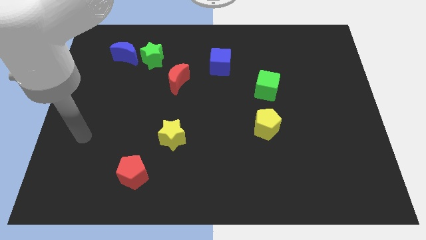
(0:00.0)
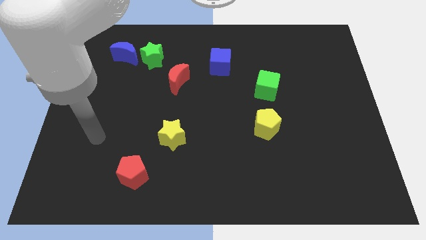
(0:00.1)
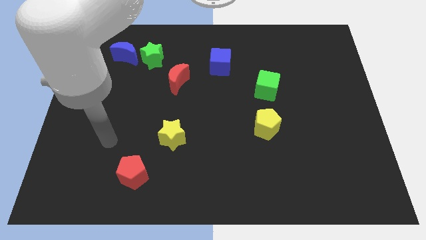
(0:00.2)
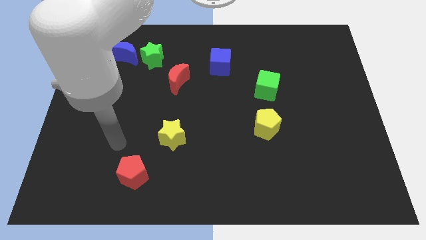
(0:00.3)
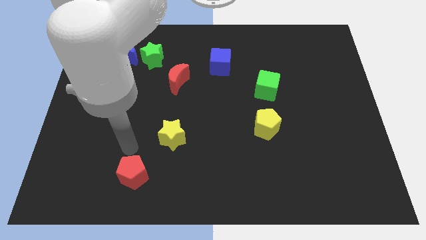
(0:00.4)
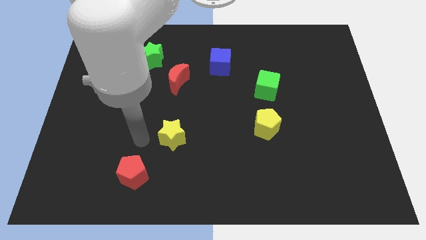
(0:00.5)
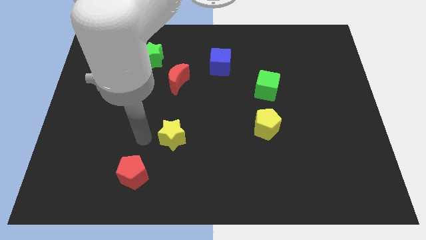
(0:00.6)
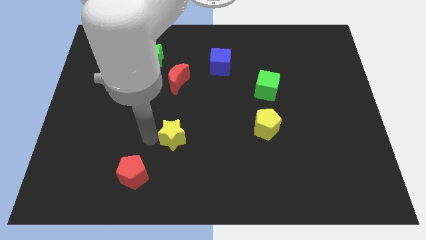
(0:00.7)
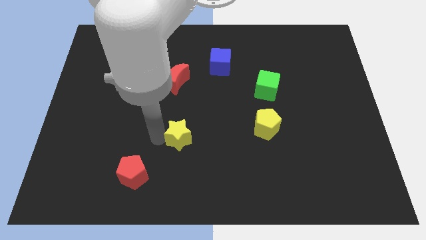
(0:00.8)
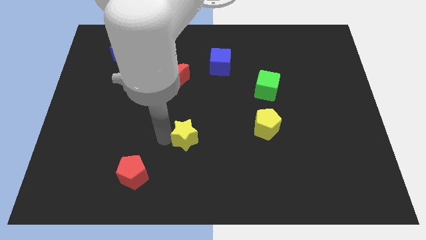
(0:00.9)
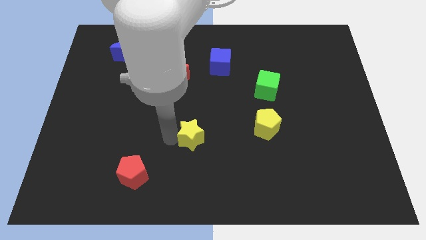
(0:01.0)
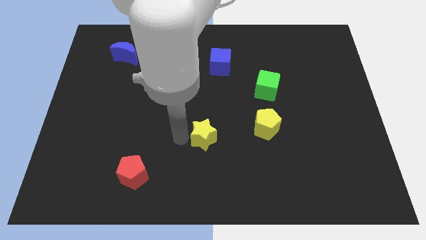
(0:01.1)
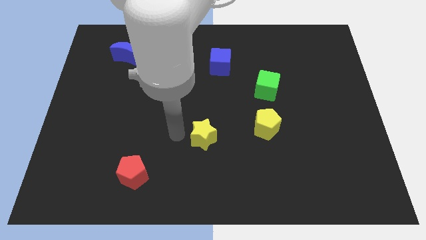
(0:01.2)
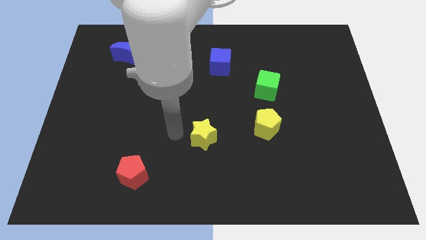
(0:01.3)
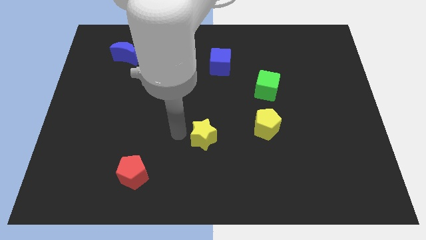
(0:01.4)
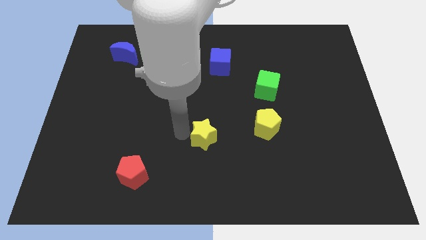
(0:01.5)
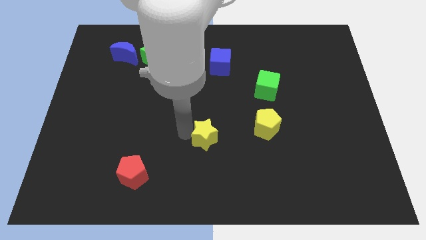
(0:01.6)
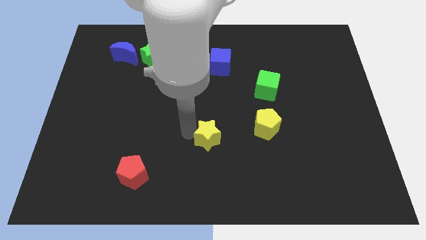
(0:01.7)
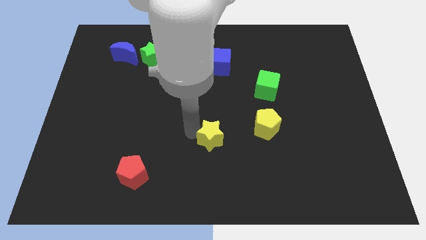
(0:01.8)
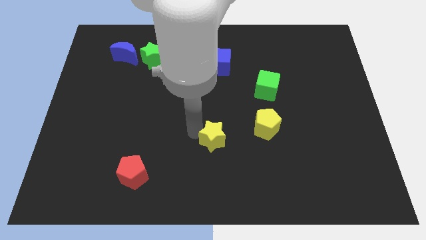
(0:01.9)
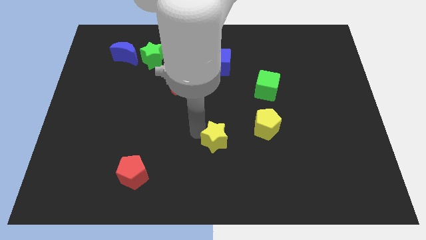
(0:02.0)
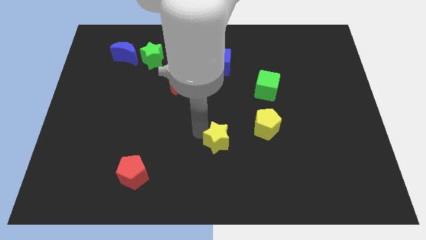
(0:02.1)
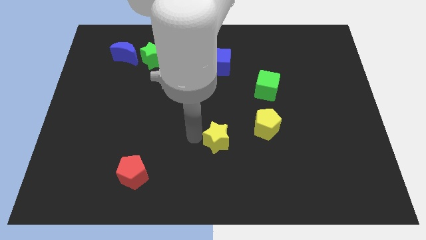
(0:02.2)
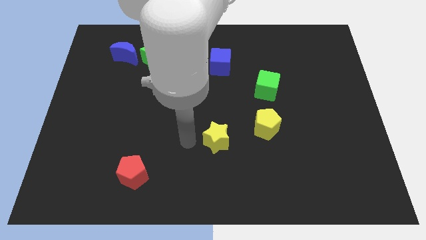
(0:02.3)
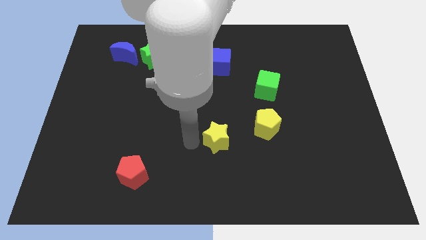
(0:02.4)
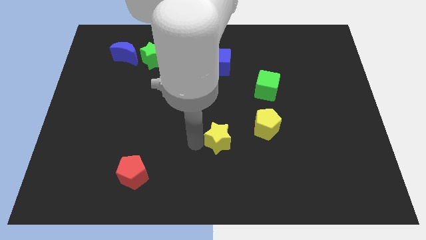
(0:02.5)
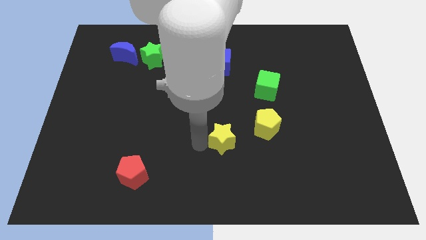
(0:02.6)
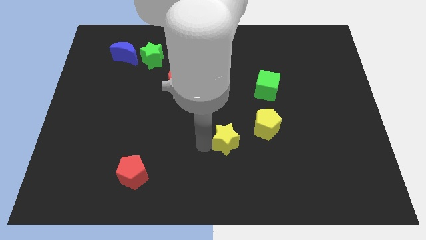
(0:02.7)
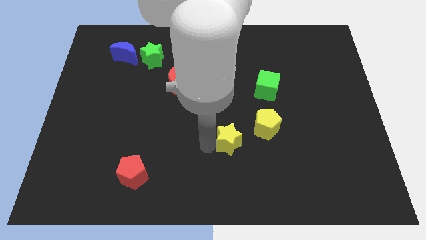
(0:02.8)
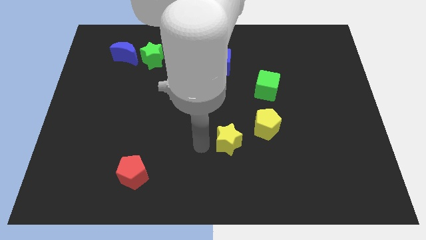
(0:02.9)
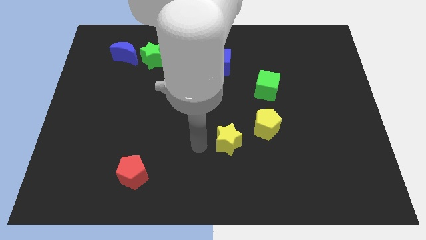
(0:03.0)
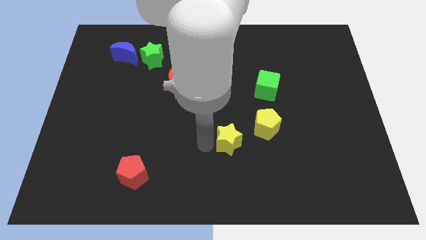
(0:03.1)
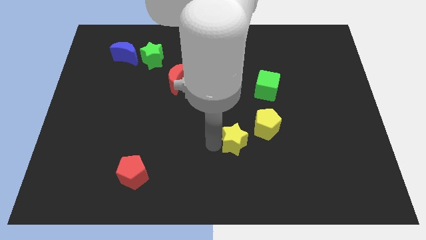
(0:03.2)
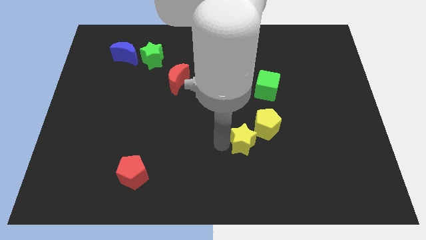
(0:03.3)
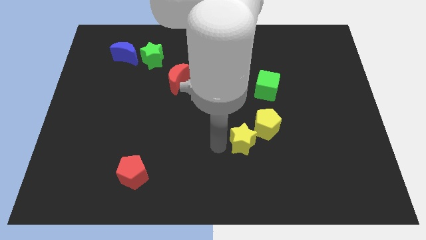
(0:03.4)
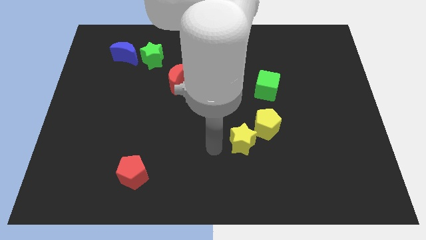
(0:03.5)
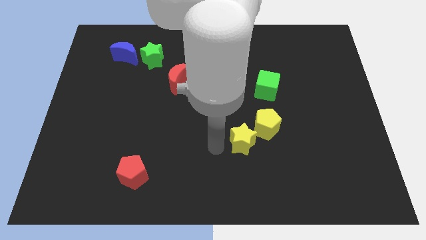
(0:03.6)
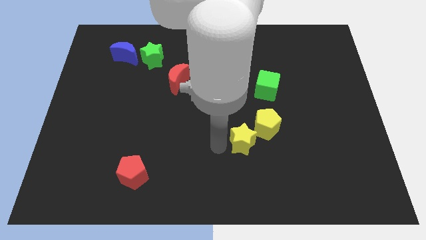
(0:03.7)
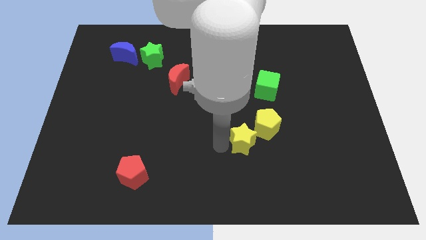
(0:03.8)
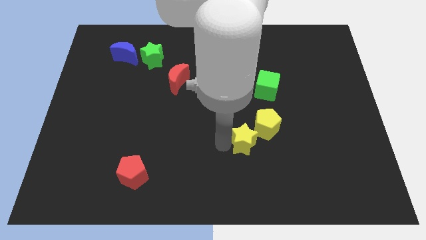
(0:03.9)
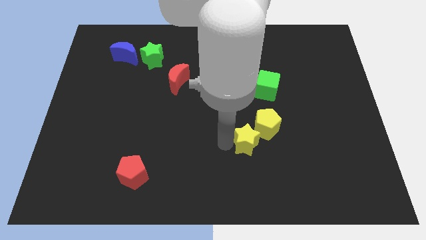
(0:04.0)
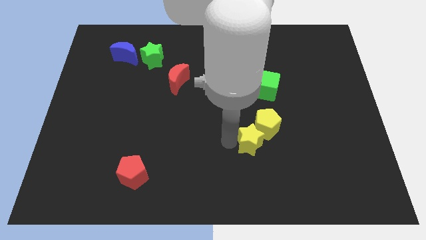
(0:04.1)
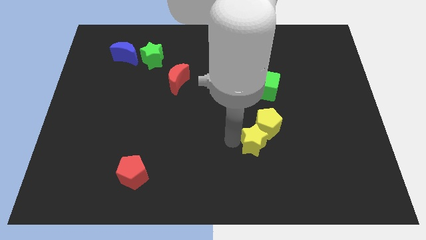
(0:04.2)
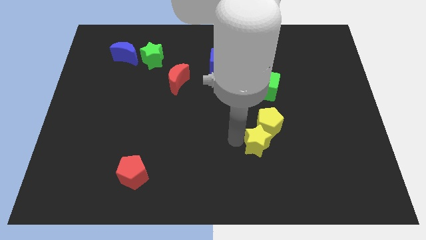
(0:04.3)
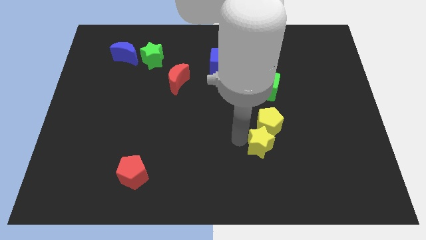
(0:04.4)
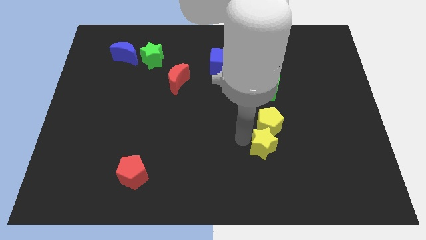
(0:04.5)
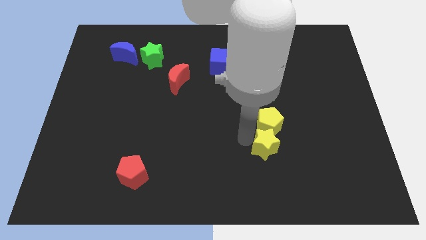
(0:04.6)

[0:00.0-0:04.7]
push the yellow star right

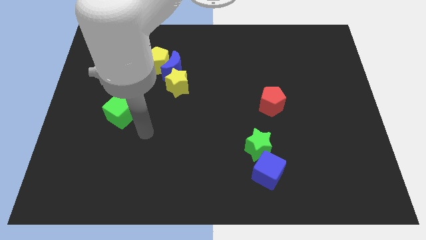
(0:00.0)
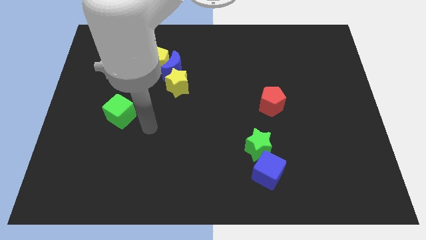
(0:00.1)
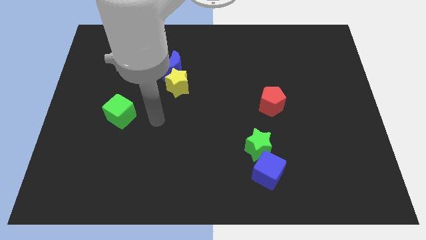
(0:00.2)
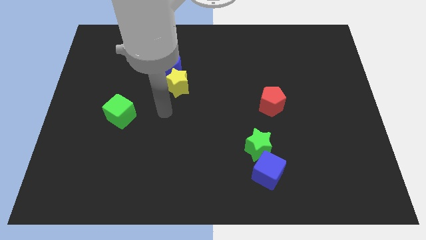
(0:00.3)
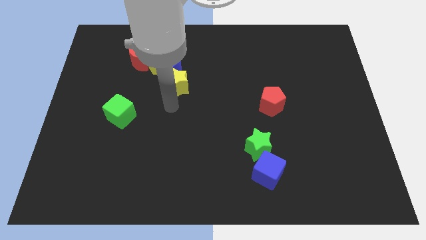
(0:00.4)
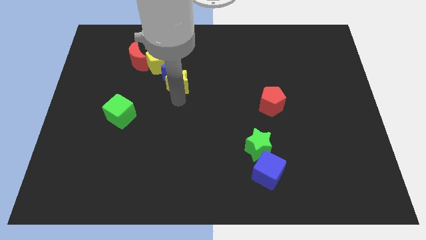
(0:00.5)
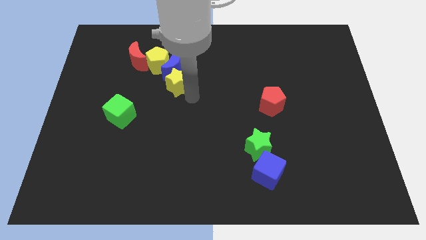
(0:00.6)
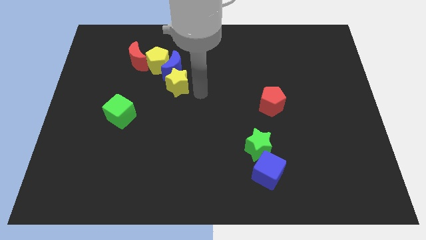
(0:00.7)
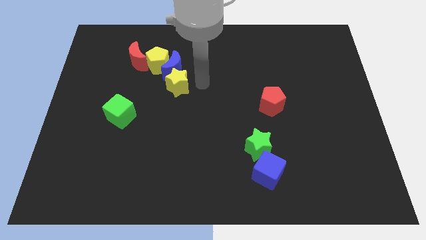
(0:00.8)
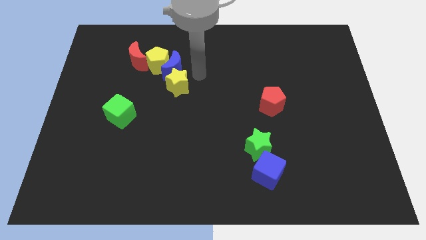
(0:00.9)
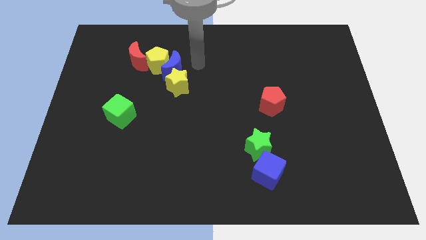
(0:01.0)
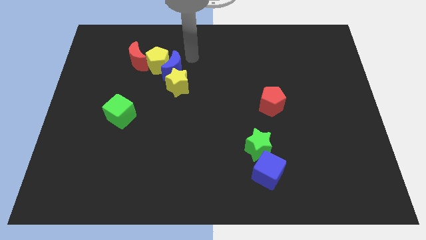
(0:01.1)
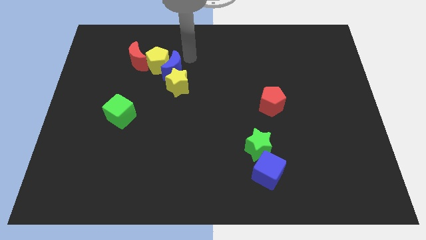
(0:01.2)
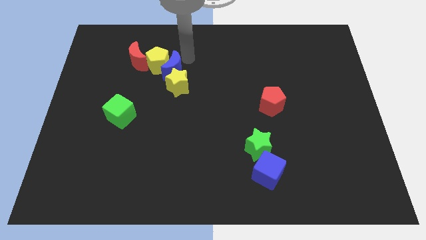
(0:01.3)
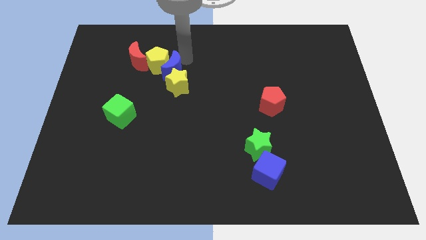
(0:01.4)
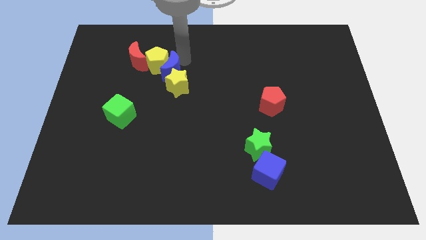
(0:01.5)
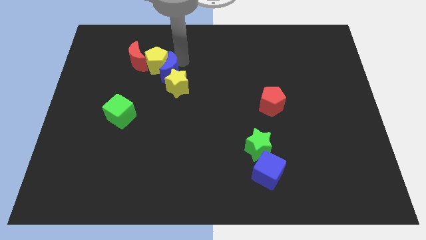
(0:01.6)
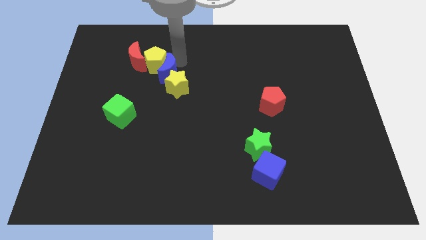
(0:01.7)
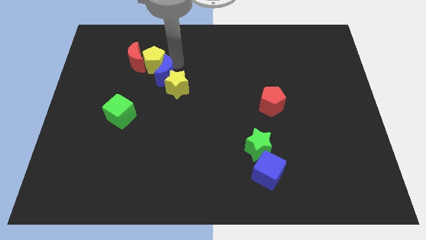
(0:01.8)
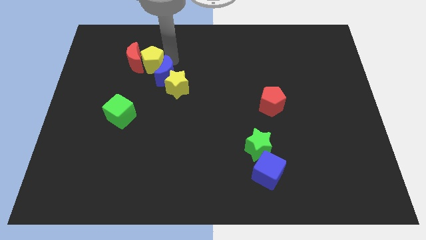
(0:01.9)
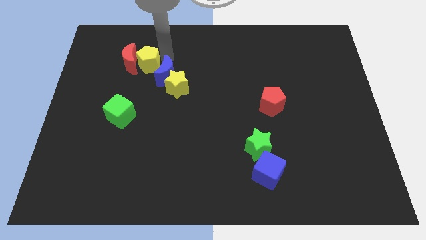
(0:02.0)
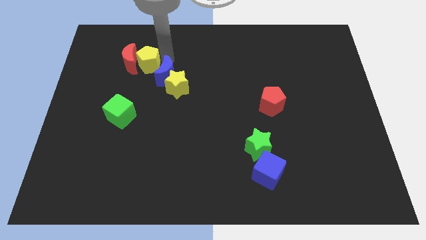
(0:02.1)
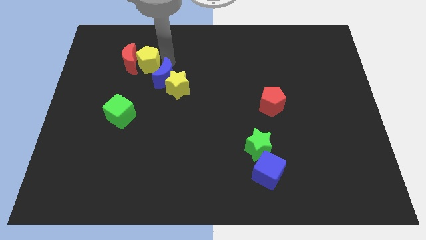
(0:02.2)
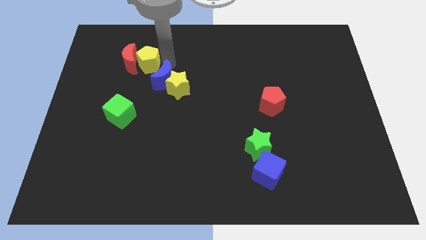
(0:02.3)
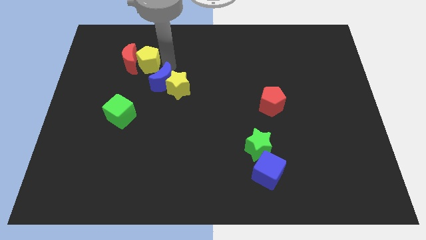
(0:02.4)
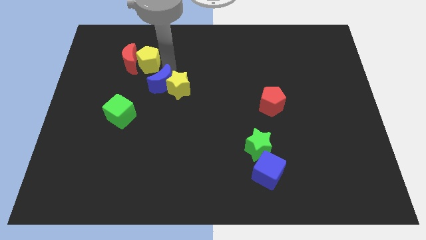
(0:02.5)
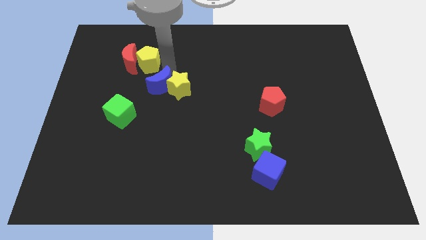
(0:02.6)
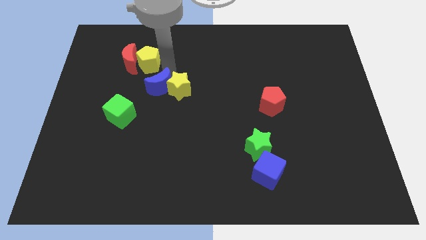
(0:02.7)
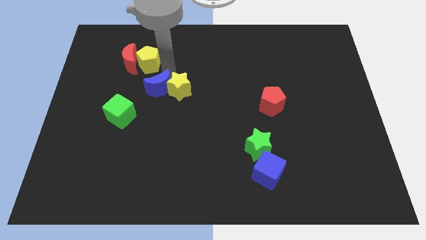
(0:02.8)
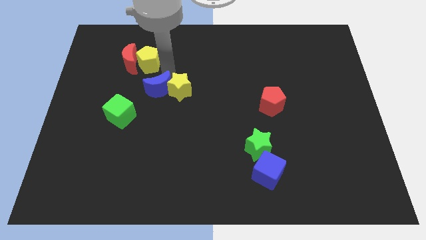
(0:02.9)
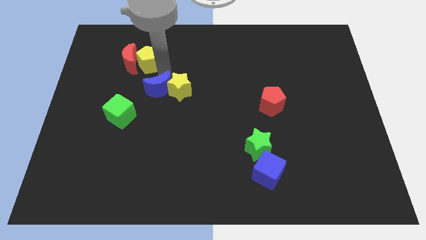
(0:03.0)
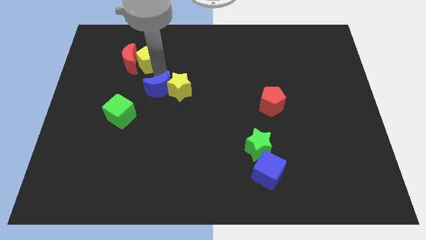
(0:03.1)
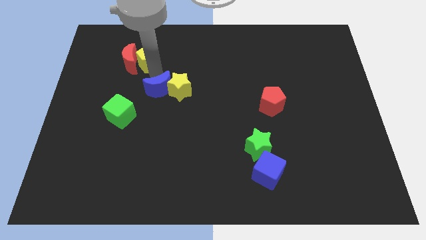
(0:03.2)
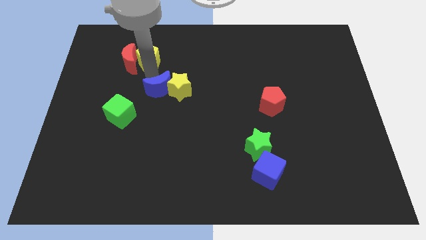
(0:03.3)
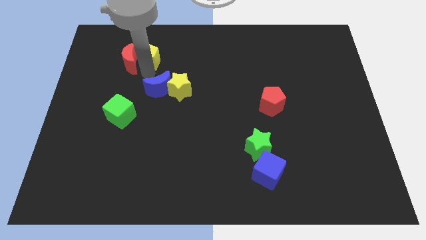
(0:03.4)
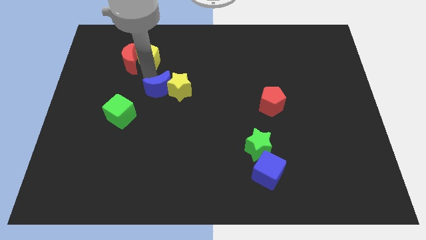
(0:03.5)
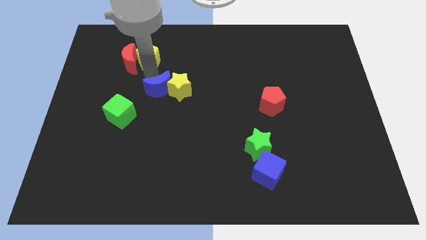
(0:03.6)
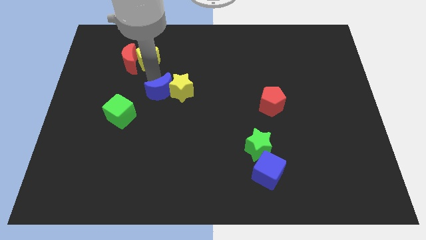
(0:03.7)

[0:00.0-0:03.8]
slide the blue moon a bit down
